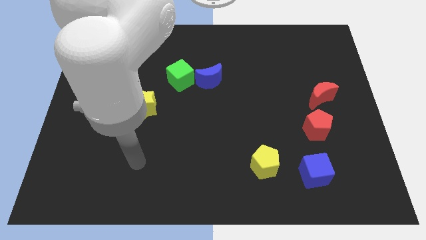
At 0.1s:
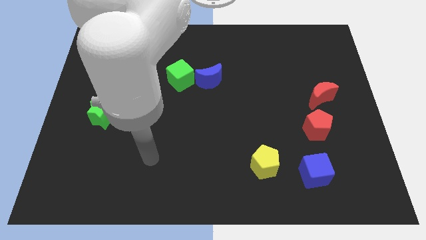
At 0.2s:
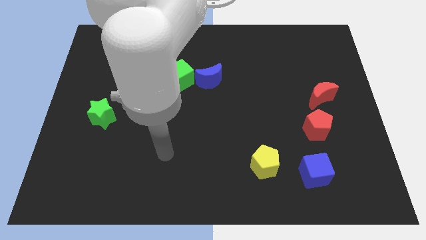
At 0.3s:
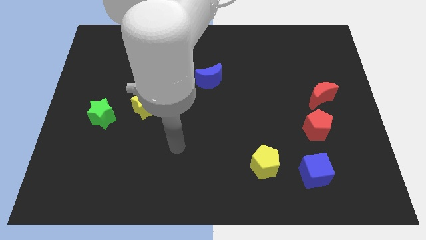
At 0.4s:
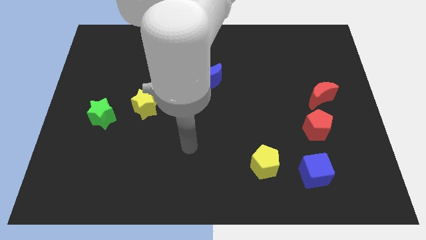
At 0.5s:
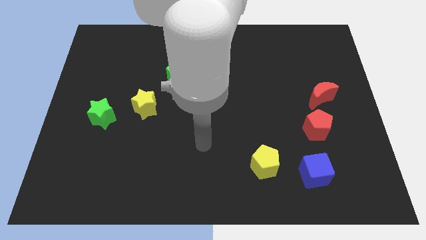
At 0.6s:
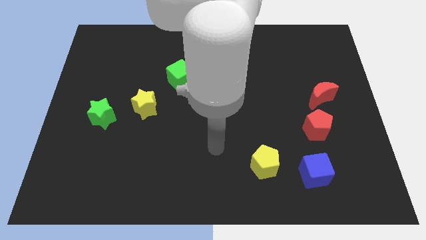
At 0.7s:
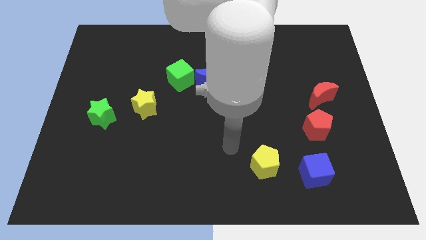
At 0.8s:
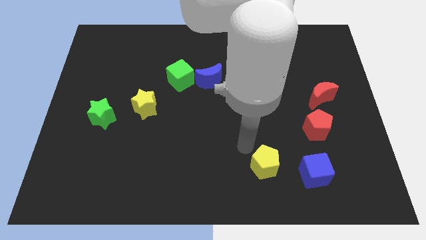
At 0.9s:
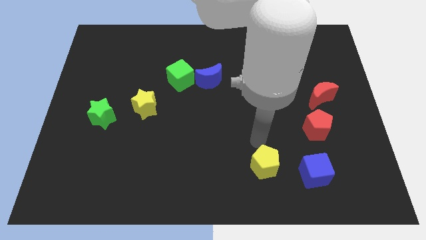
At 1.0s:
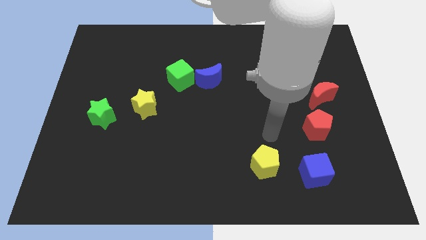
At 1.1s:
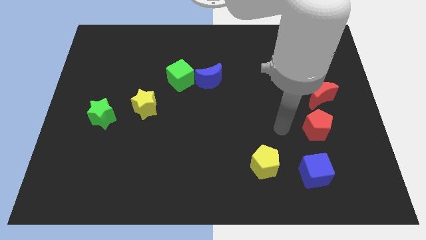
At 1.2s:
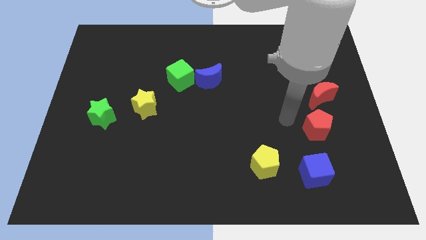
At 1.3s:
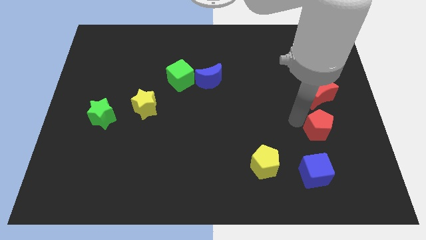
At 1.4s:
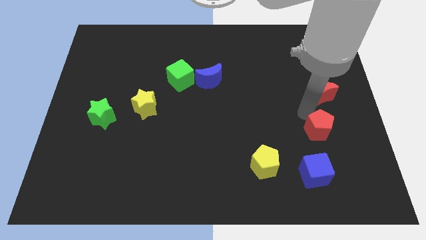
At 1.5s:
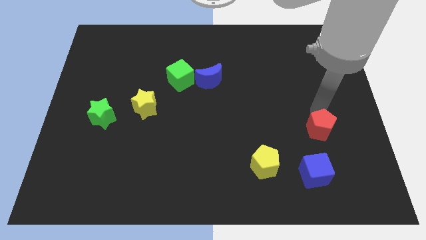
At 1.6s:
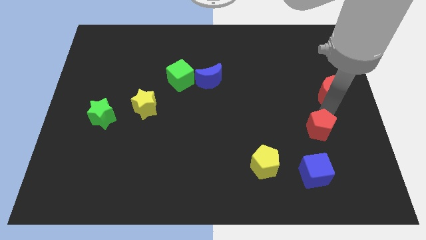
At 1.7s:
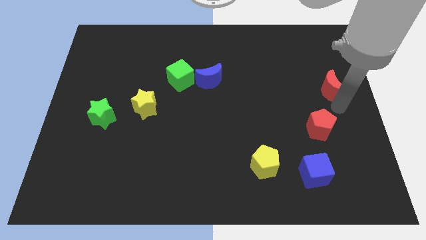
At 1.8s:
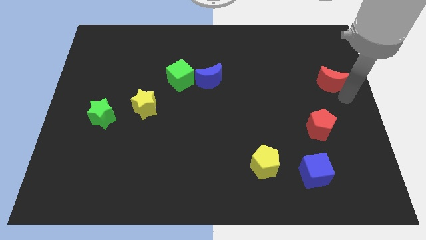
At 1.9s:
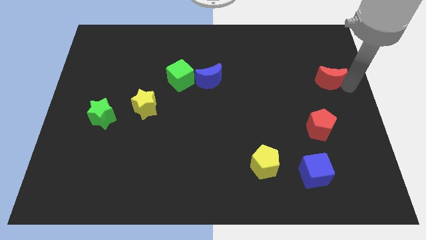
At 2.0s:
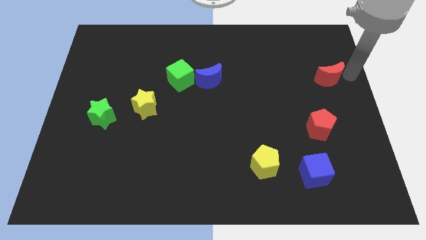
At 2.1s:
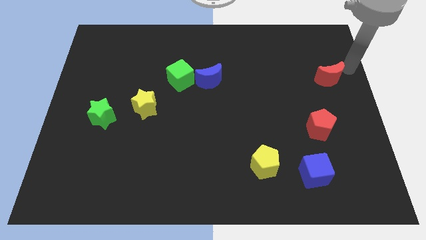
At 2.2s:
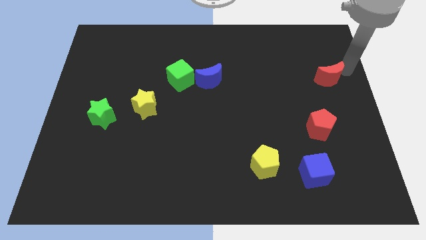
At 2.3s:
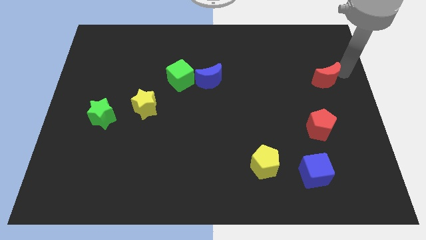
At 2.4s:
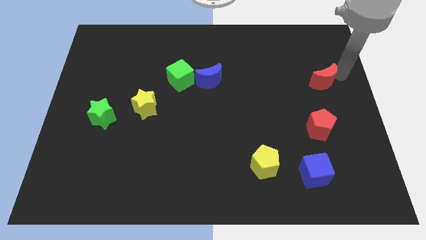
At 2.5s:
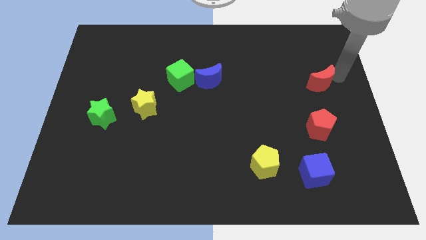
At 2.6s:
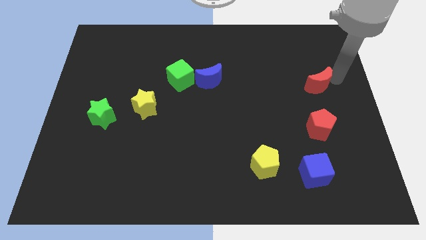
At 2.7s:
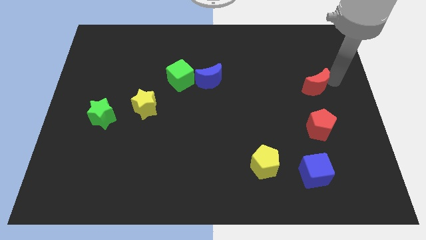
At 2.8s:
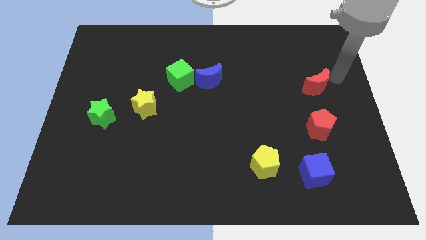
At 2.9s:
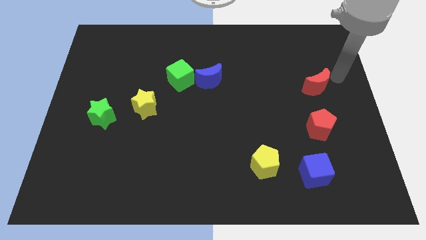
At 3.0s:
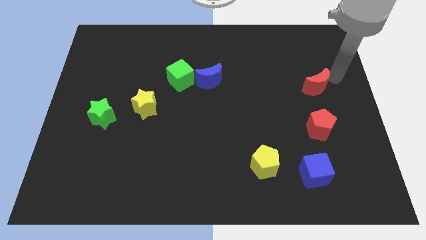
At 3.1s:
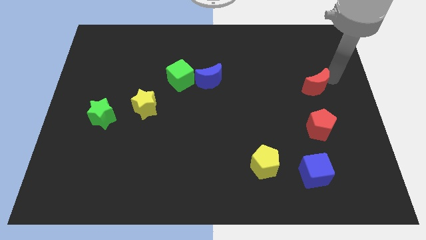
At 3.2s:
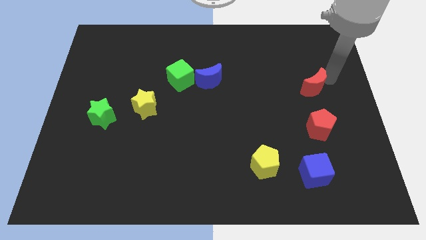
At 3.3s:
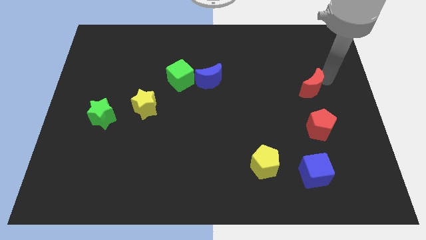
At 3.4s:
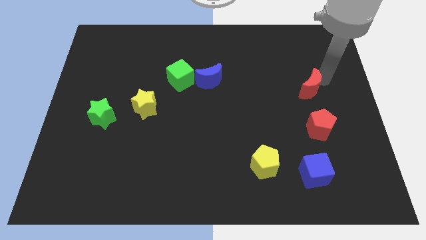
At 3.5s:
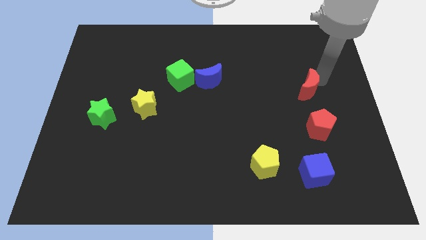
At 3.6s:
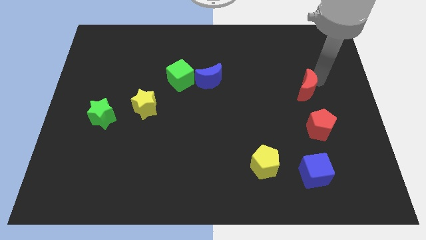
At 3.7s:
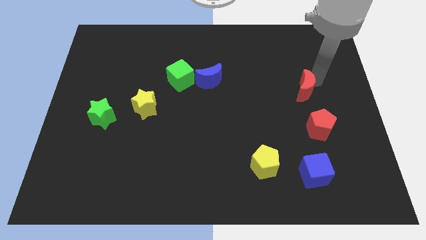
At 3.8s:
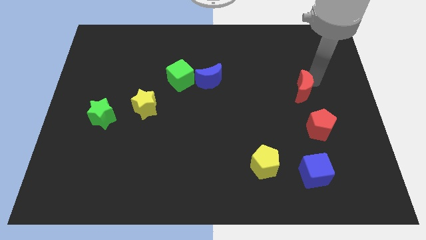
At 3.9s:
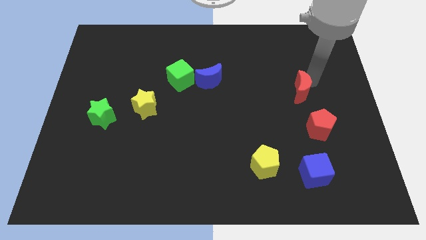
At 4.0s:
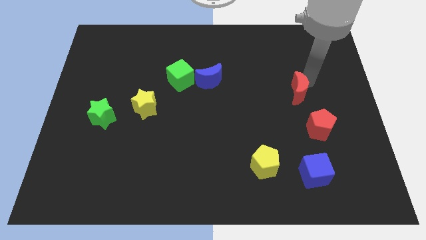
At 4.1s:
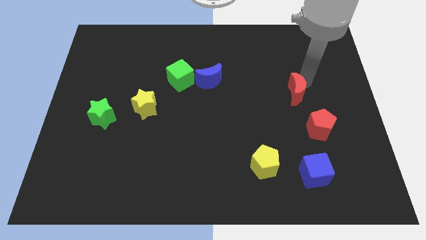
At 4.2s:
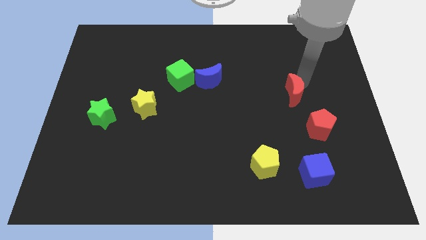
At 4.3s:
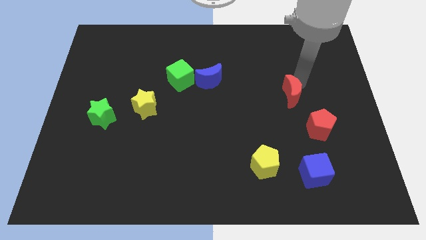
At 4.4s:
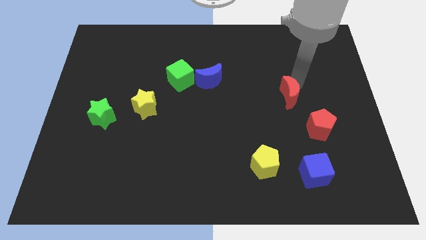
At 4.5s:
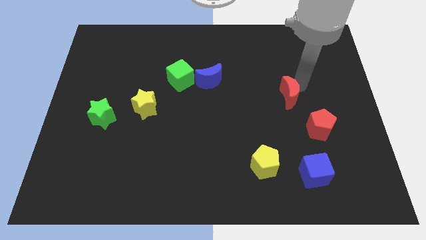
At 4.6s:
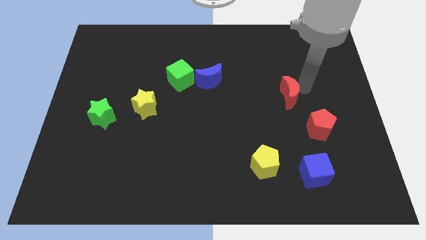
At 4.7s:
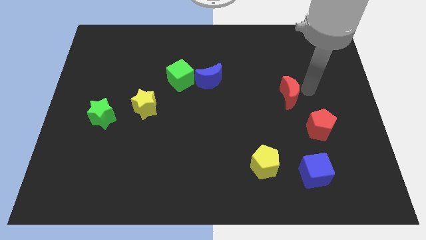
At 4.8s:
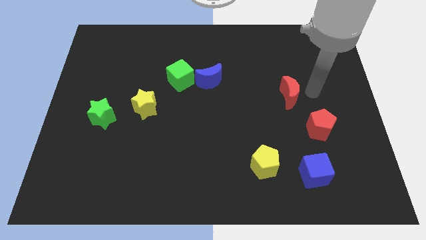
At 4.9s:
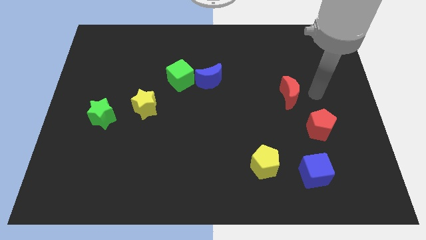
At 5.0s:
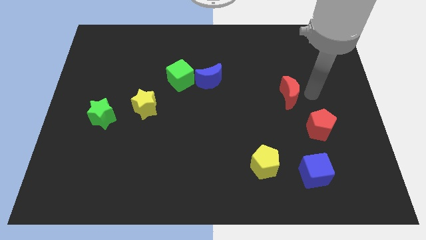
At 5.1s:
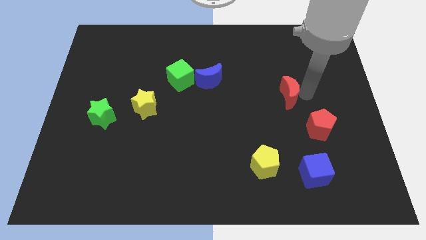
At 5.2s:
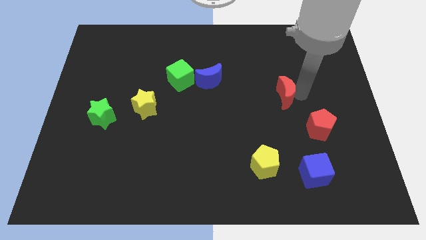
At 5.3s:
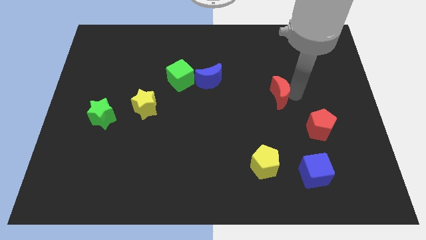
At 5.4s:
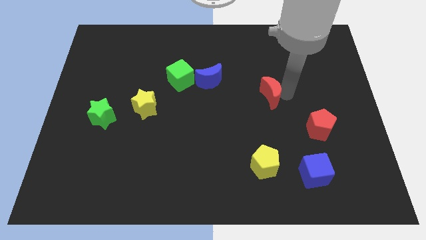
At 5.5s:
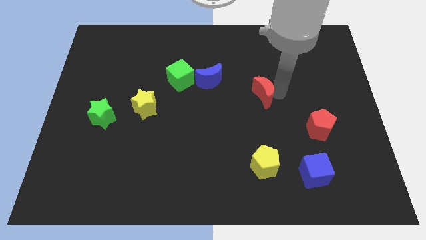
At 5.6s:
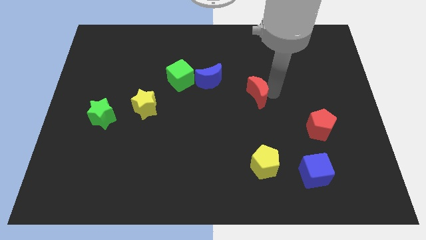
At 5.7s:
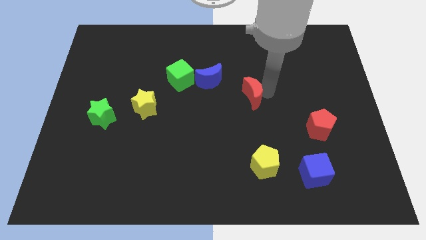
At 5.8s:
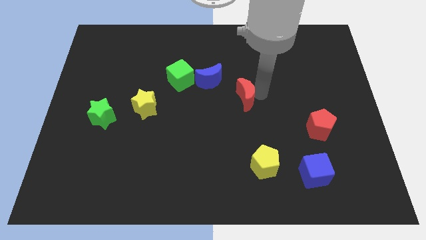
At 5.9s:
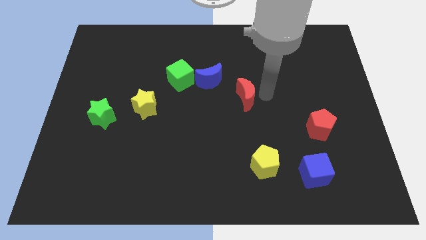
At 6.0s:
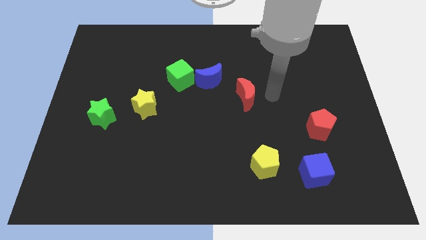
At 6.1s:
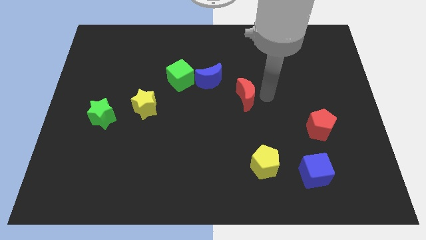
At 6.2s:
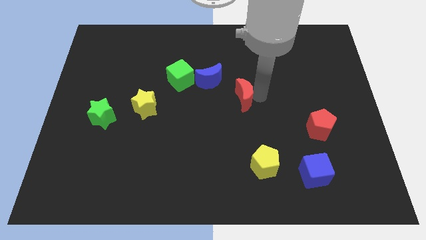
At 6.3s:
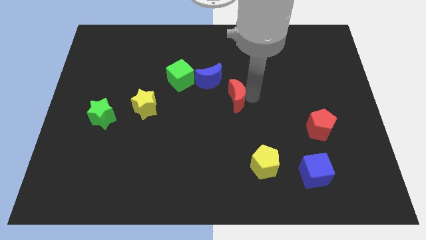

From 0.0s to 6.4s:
slide the red moon left

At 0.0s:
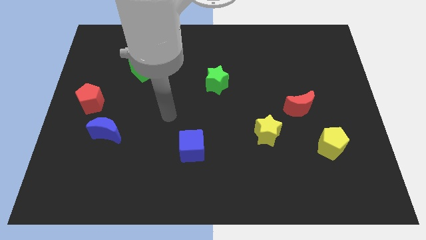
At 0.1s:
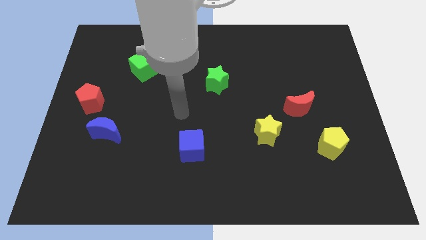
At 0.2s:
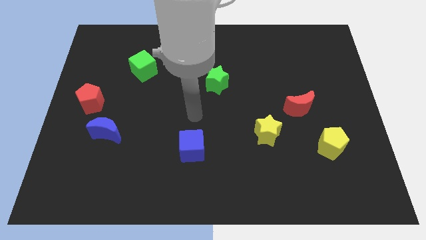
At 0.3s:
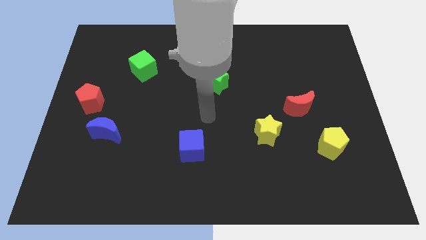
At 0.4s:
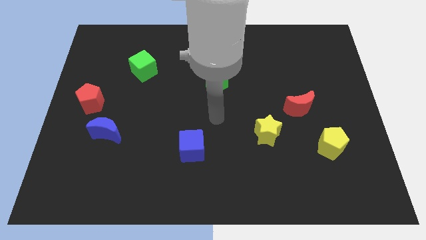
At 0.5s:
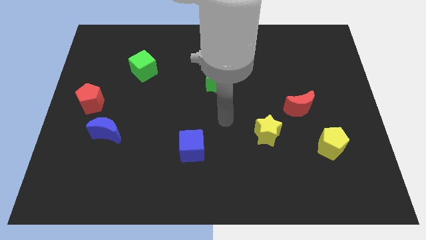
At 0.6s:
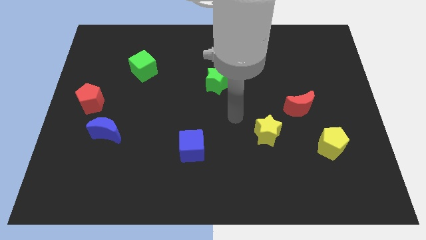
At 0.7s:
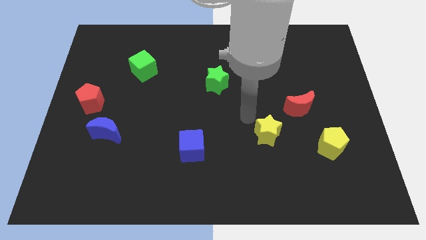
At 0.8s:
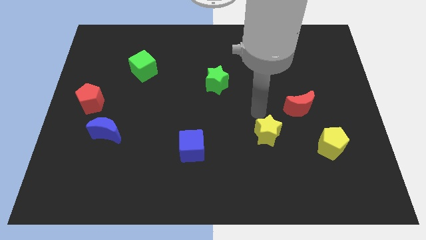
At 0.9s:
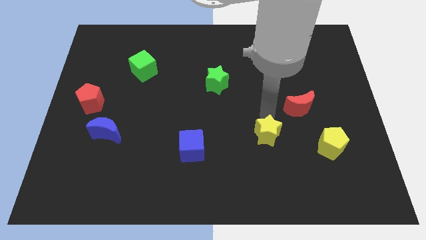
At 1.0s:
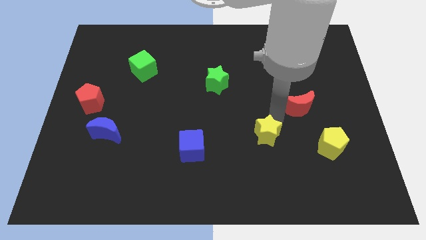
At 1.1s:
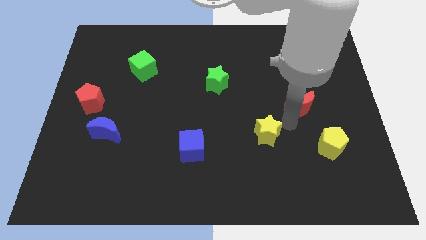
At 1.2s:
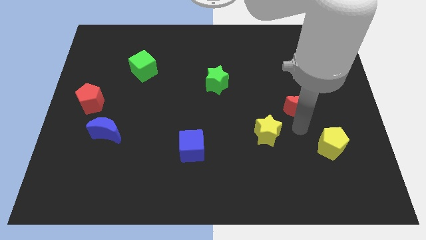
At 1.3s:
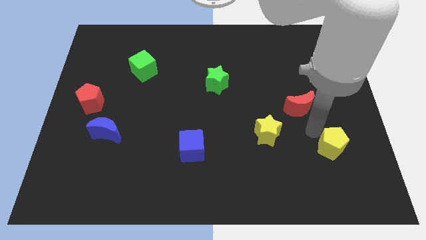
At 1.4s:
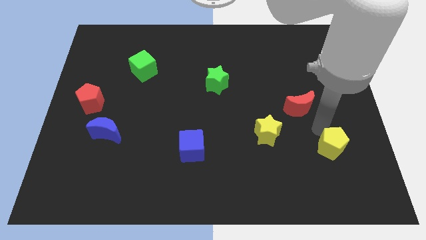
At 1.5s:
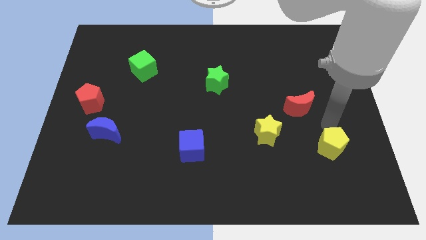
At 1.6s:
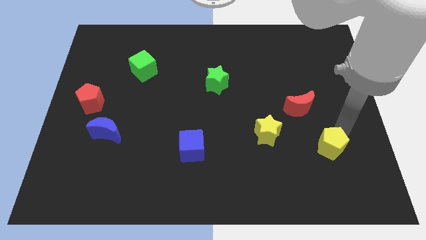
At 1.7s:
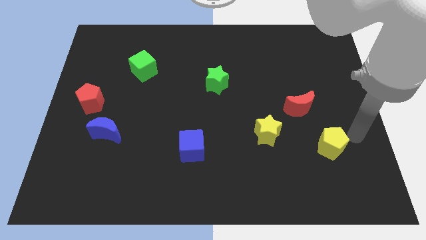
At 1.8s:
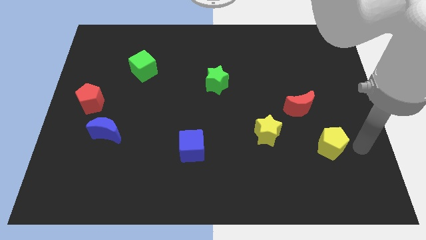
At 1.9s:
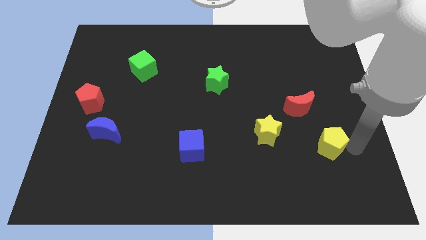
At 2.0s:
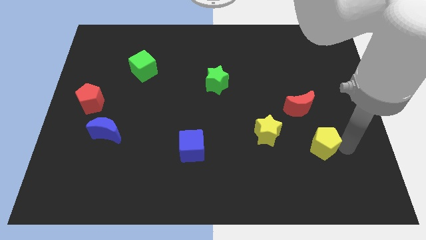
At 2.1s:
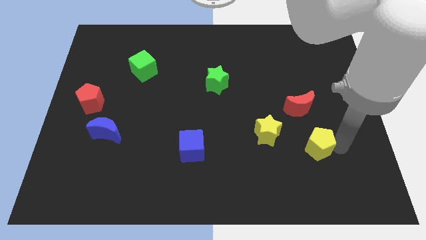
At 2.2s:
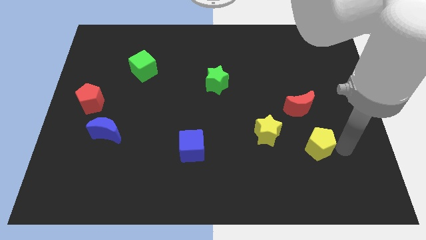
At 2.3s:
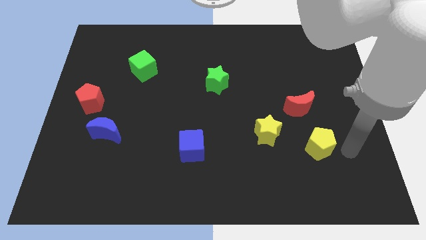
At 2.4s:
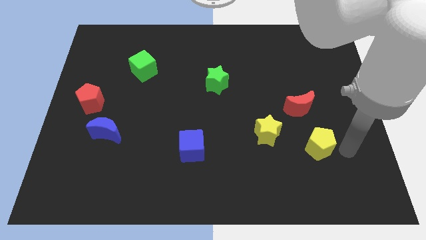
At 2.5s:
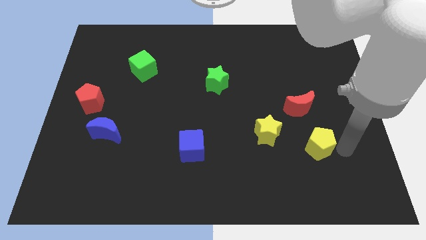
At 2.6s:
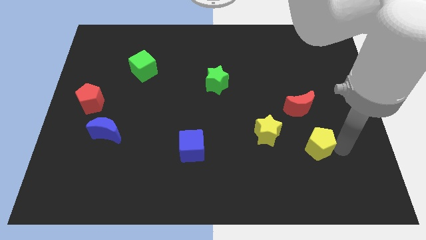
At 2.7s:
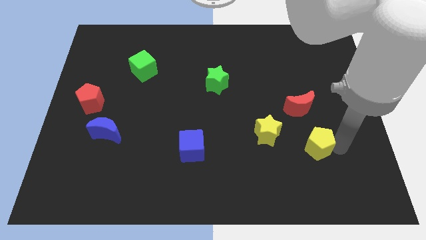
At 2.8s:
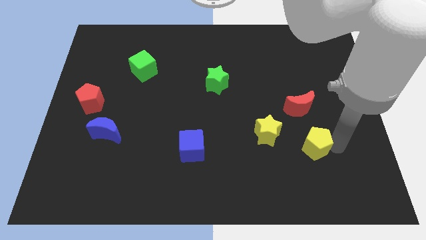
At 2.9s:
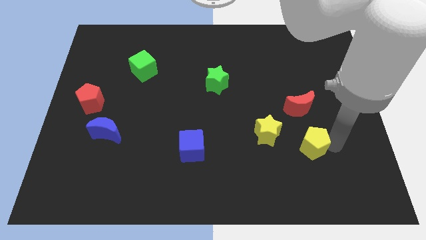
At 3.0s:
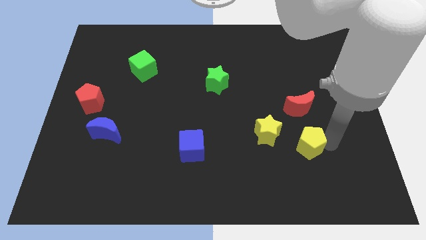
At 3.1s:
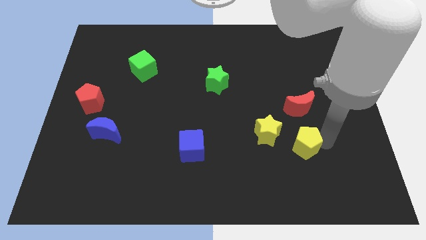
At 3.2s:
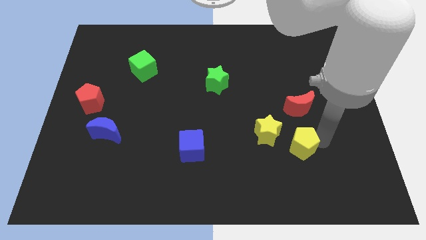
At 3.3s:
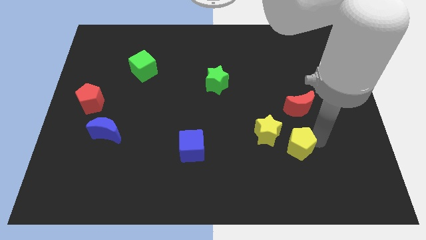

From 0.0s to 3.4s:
slightly push the yellow pentagon to the left
